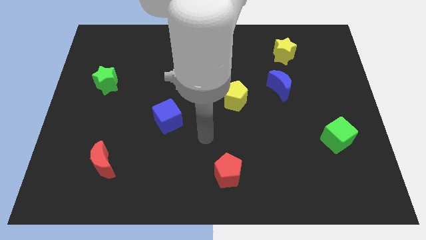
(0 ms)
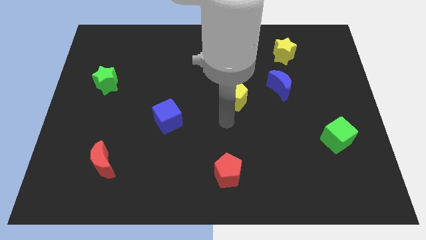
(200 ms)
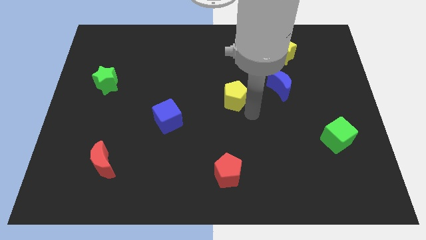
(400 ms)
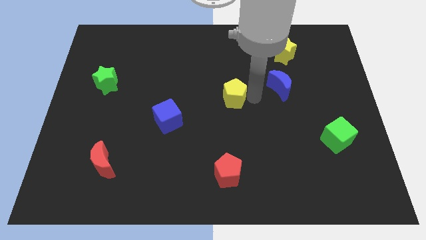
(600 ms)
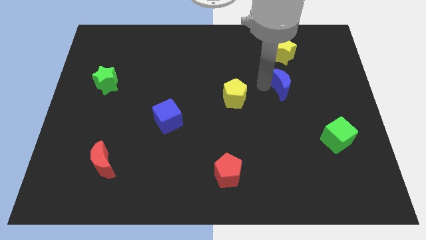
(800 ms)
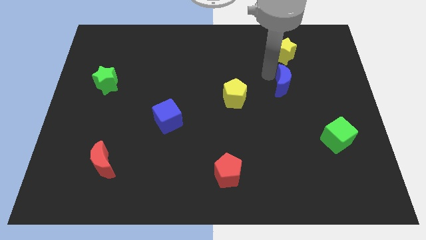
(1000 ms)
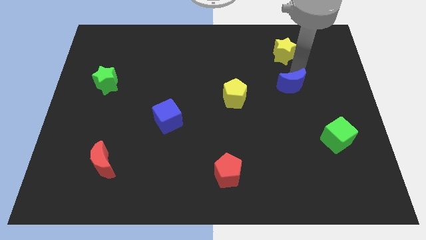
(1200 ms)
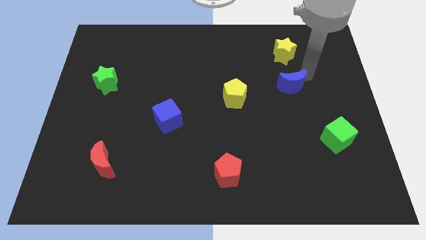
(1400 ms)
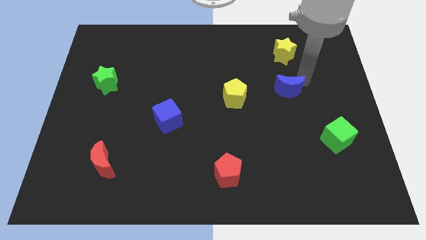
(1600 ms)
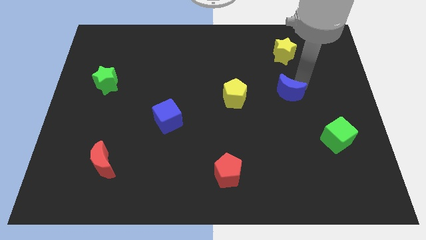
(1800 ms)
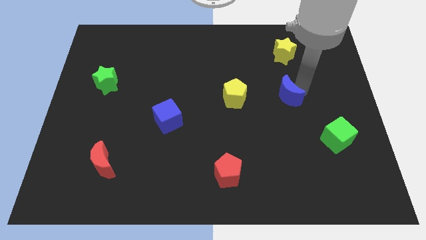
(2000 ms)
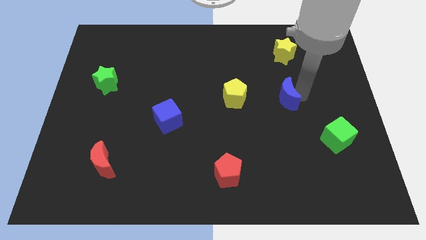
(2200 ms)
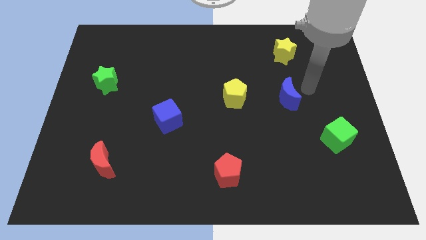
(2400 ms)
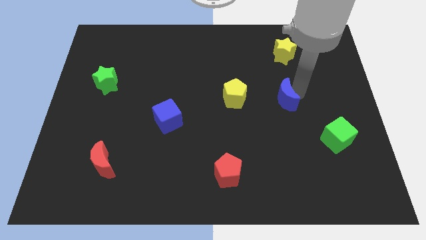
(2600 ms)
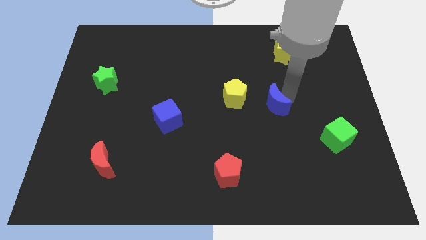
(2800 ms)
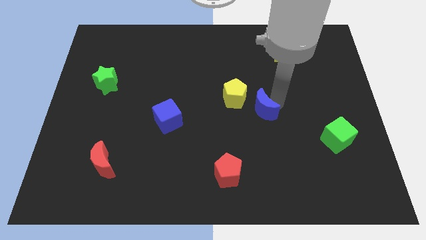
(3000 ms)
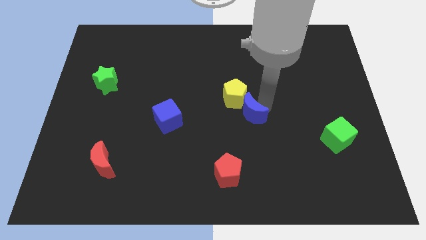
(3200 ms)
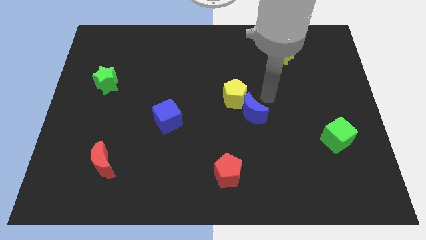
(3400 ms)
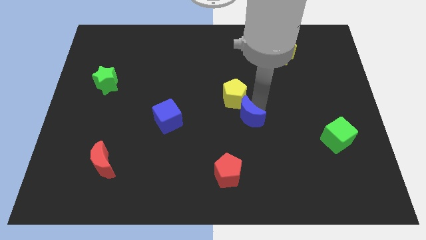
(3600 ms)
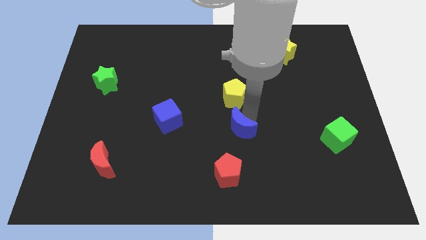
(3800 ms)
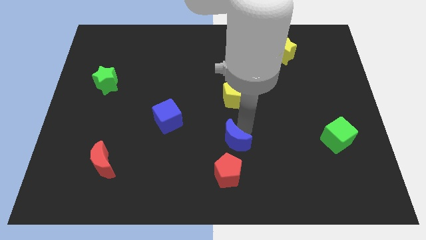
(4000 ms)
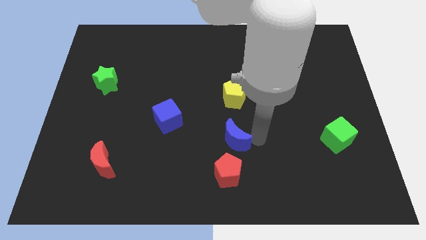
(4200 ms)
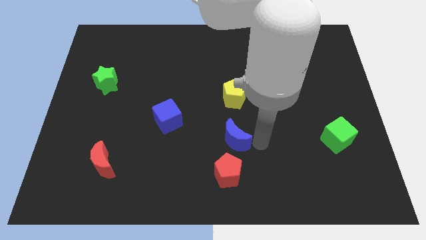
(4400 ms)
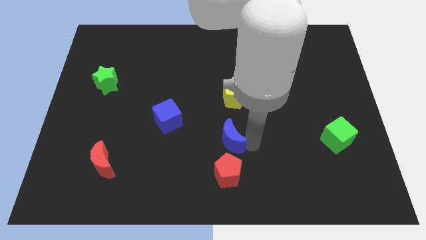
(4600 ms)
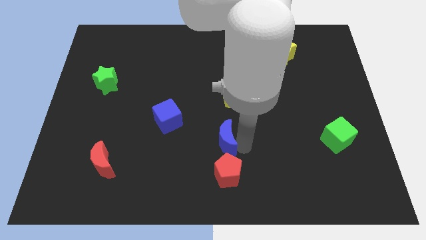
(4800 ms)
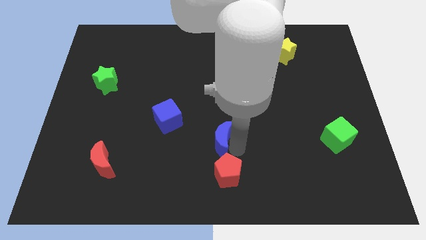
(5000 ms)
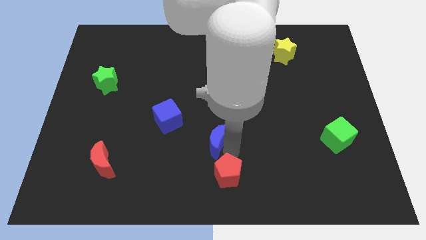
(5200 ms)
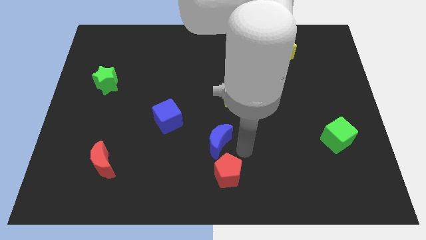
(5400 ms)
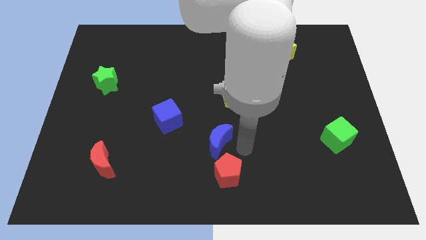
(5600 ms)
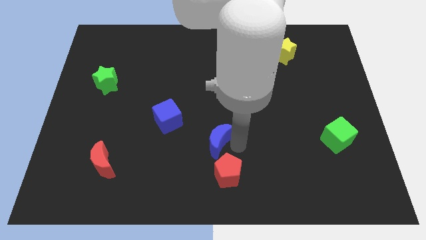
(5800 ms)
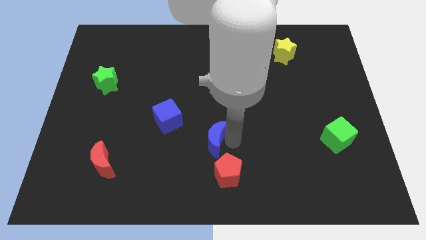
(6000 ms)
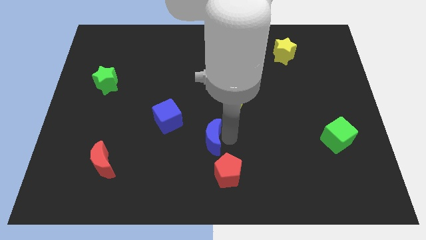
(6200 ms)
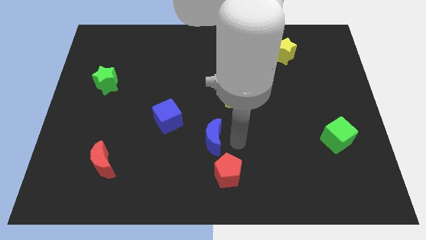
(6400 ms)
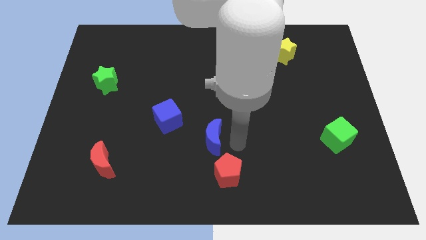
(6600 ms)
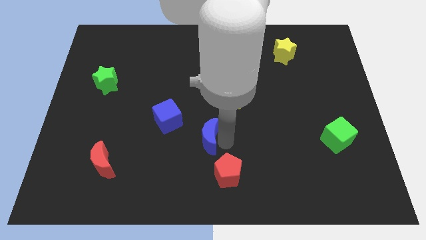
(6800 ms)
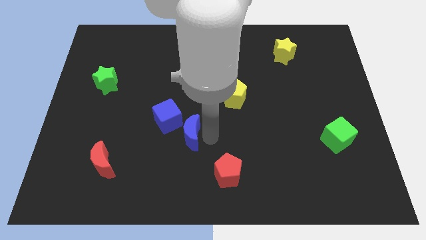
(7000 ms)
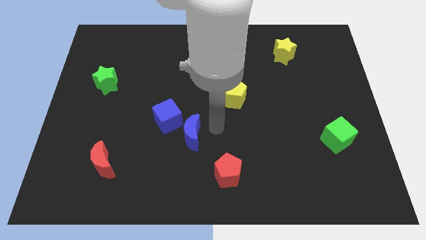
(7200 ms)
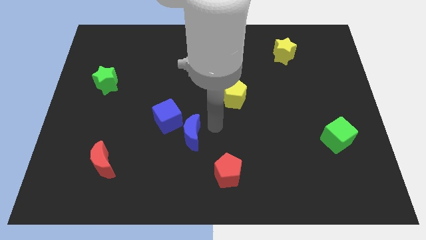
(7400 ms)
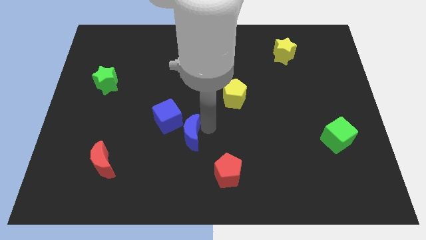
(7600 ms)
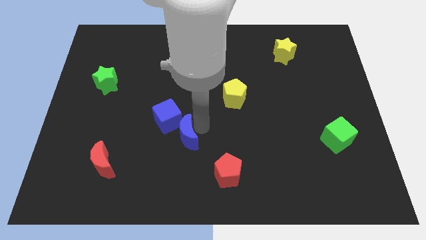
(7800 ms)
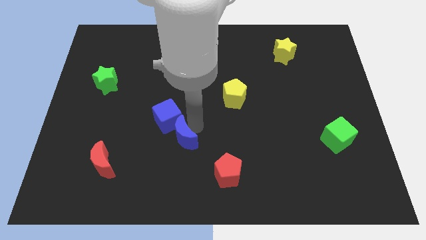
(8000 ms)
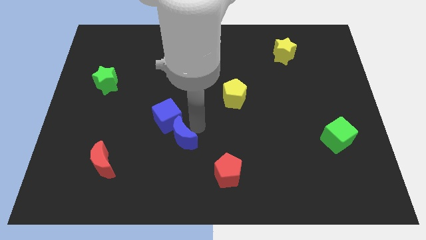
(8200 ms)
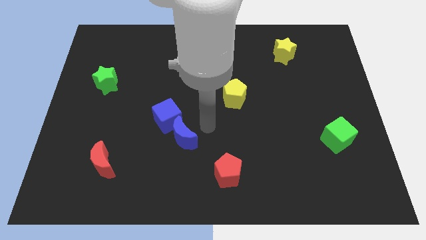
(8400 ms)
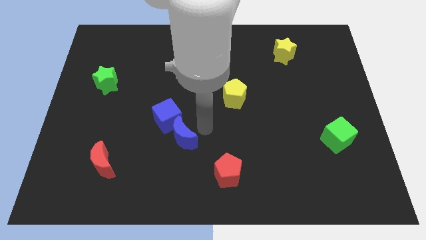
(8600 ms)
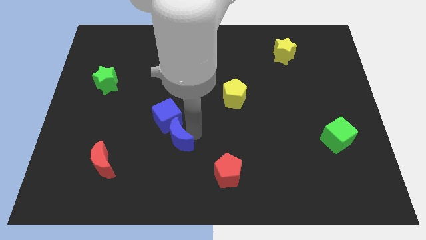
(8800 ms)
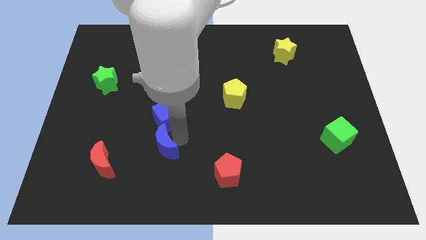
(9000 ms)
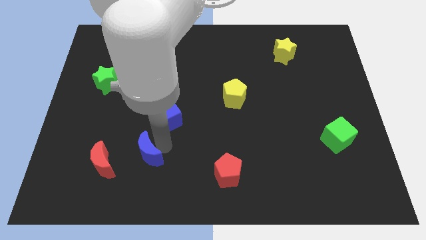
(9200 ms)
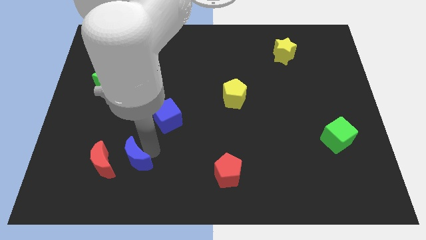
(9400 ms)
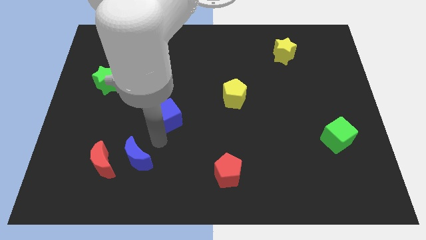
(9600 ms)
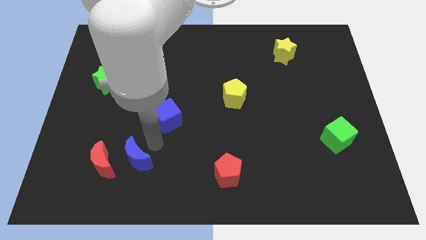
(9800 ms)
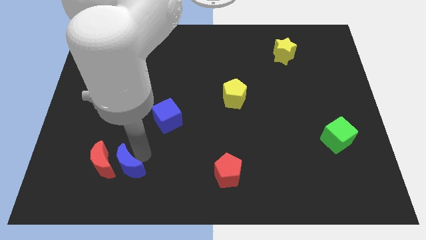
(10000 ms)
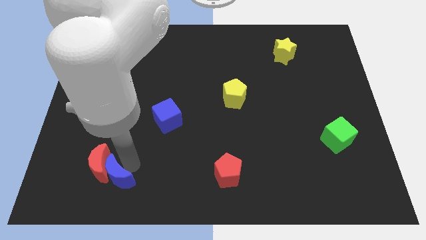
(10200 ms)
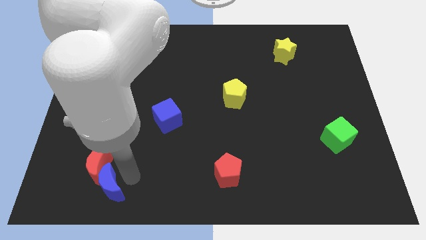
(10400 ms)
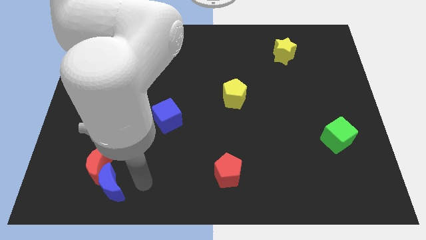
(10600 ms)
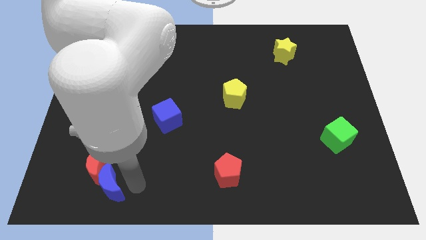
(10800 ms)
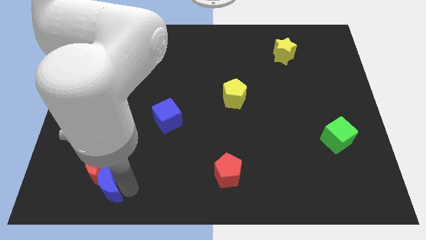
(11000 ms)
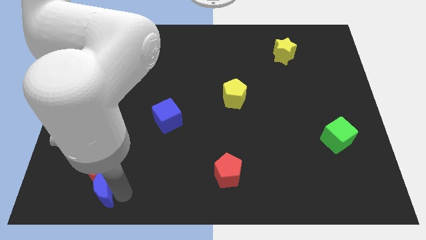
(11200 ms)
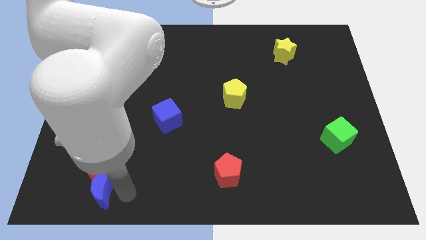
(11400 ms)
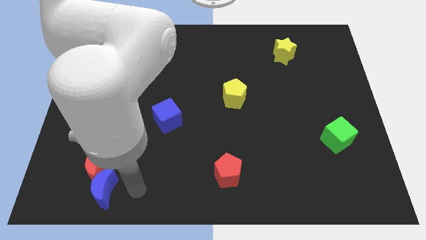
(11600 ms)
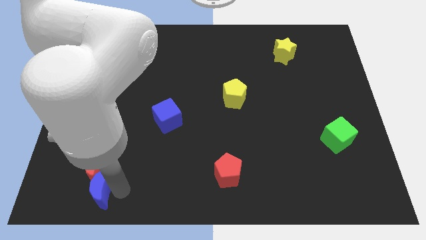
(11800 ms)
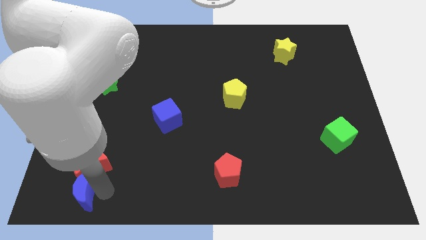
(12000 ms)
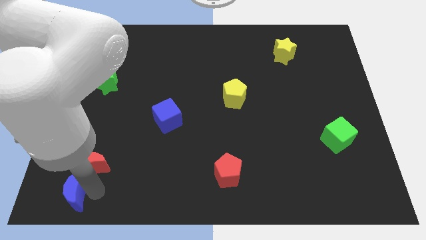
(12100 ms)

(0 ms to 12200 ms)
put the blue moon to the bottom left corner

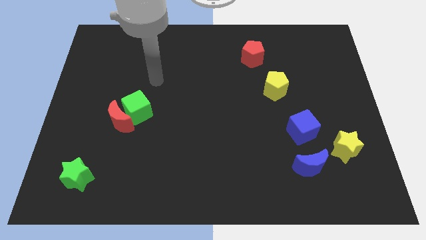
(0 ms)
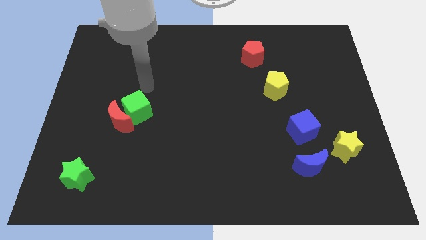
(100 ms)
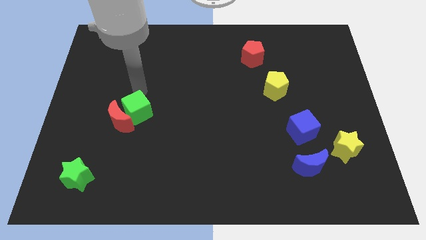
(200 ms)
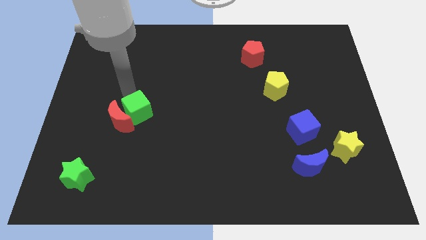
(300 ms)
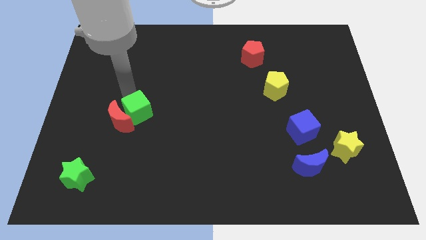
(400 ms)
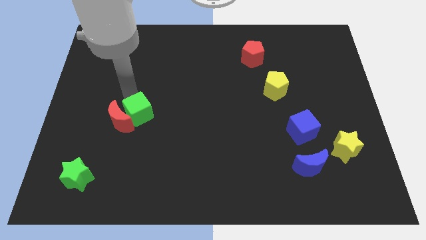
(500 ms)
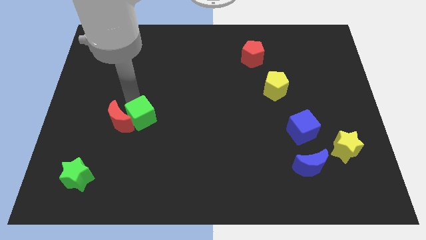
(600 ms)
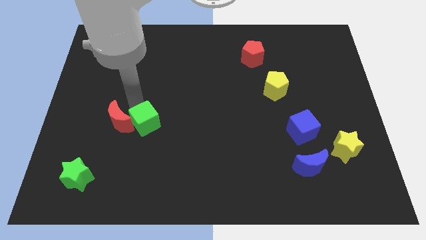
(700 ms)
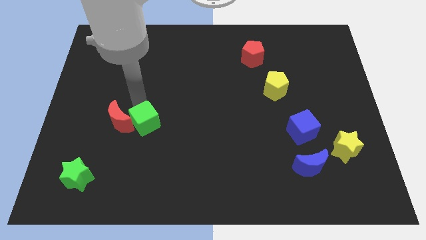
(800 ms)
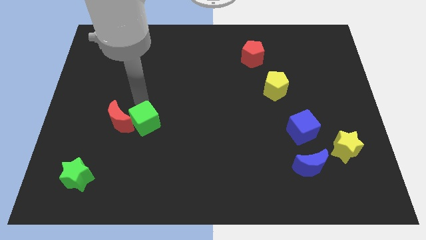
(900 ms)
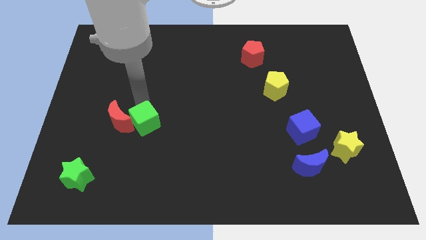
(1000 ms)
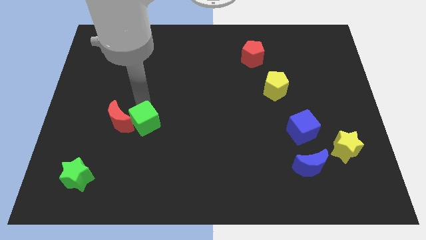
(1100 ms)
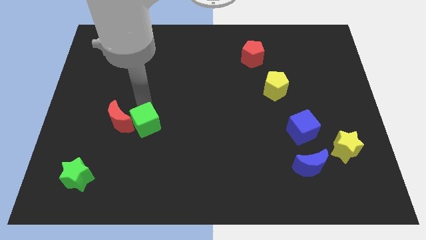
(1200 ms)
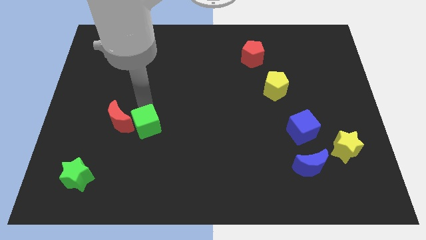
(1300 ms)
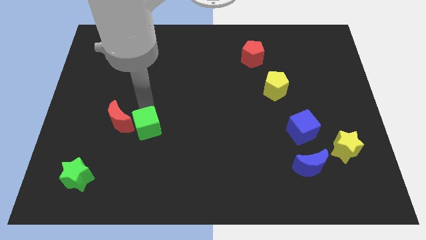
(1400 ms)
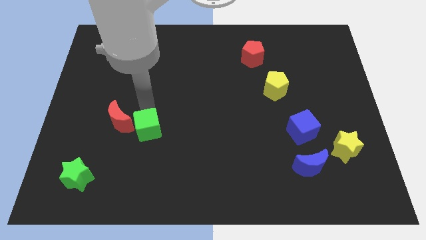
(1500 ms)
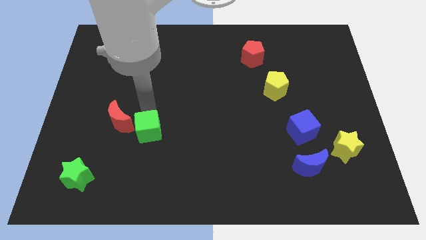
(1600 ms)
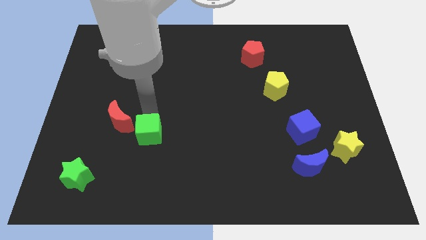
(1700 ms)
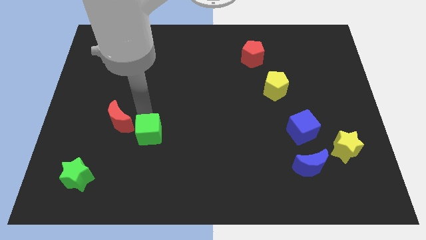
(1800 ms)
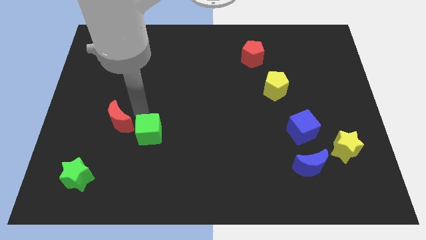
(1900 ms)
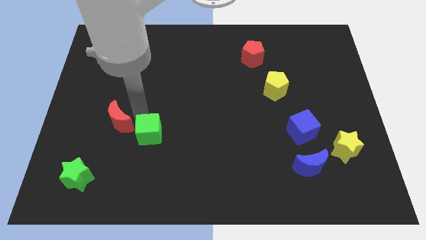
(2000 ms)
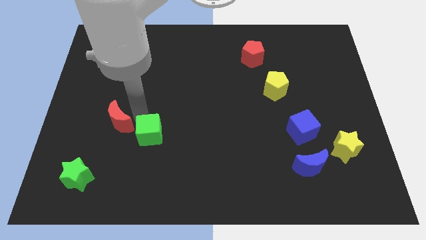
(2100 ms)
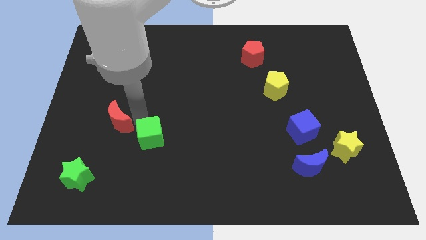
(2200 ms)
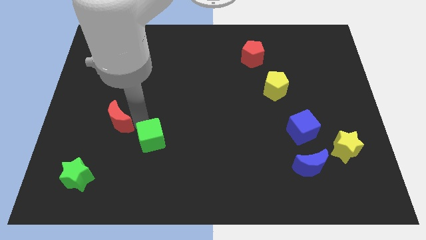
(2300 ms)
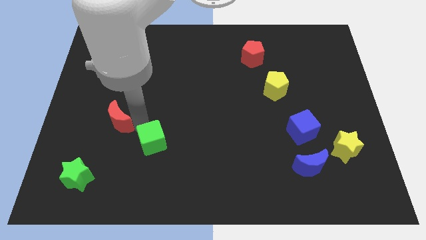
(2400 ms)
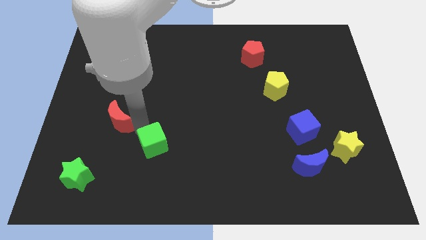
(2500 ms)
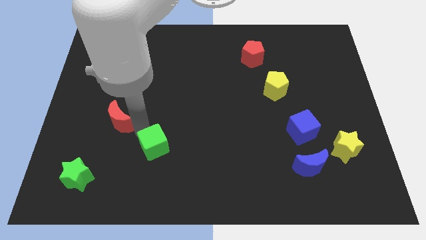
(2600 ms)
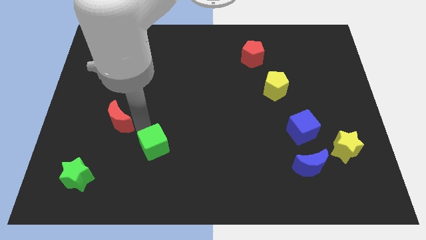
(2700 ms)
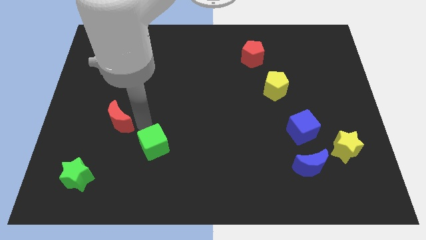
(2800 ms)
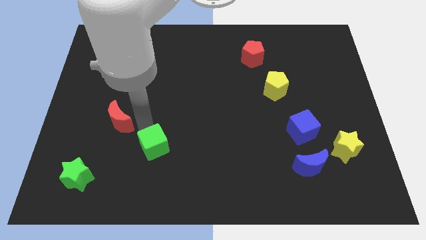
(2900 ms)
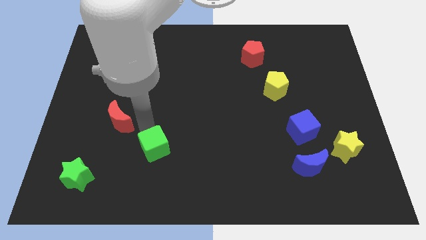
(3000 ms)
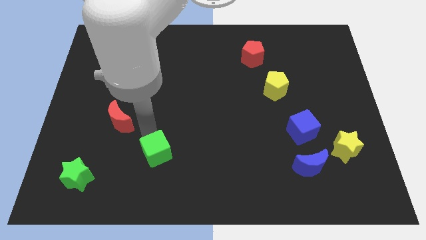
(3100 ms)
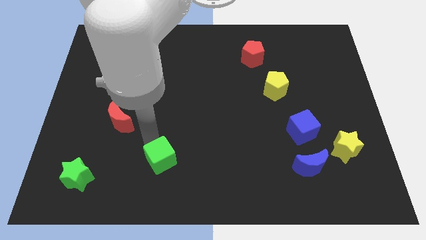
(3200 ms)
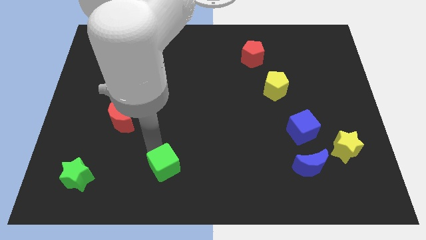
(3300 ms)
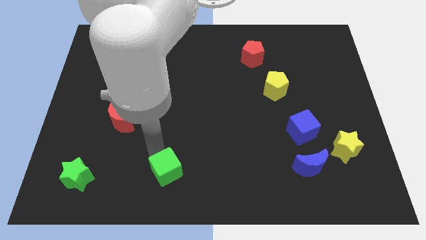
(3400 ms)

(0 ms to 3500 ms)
put the green cube to the bottom side
